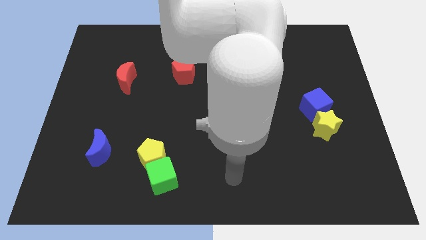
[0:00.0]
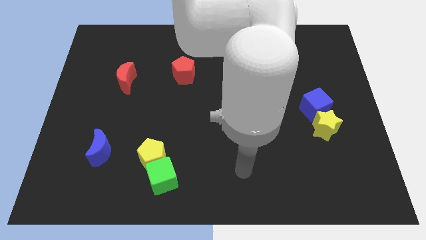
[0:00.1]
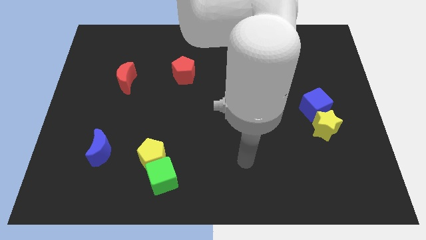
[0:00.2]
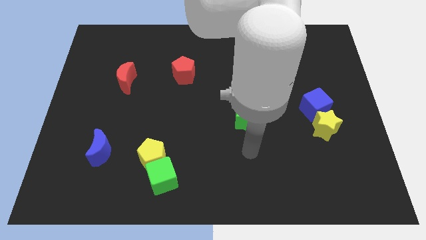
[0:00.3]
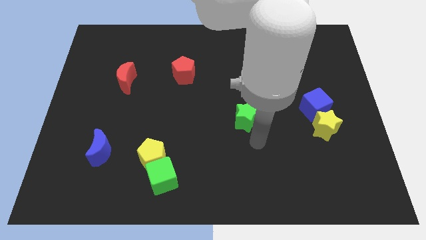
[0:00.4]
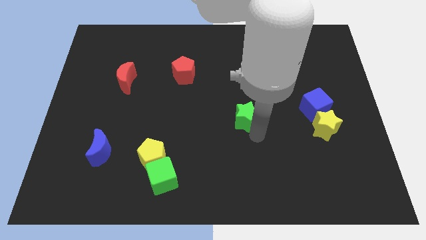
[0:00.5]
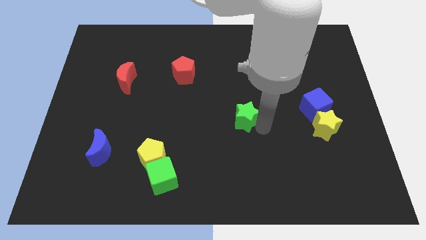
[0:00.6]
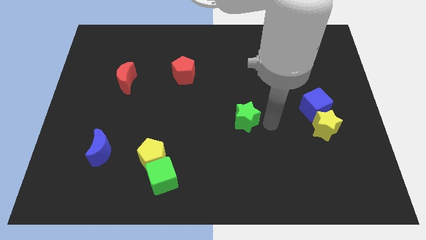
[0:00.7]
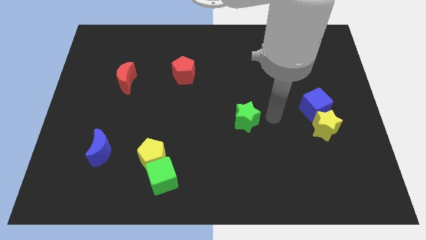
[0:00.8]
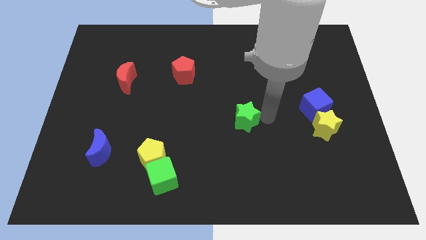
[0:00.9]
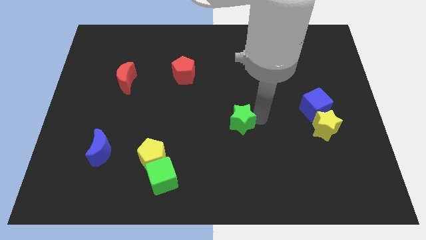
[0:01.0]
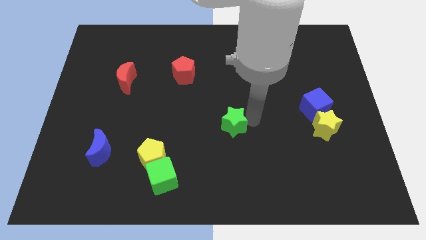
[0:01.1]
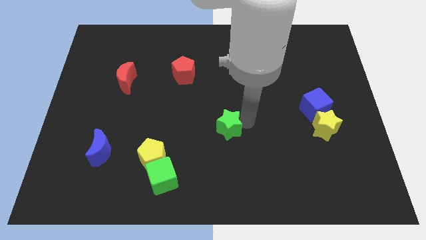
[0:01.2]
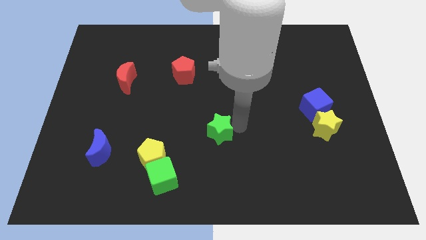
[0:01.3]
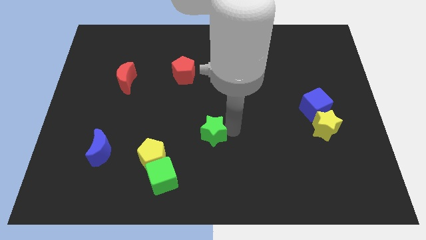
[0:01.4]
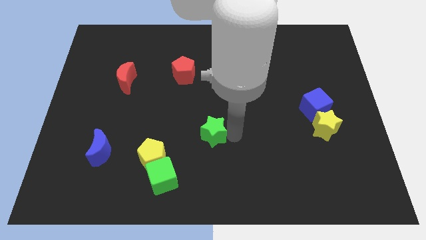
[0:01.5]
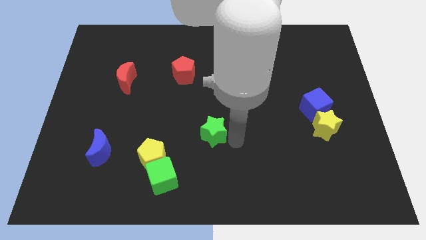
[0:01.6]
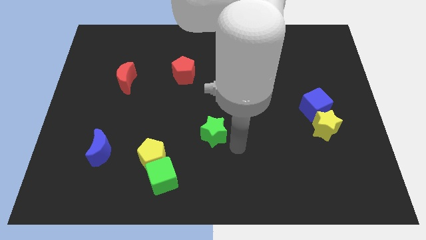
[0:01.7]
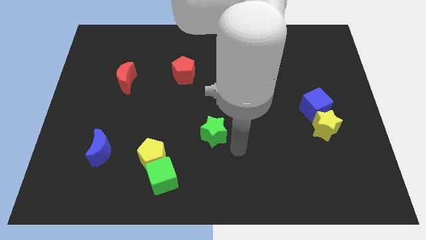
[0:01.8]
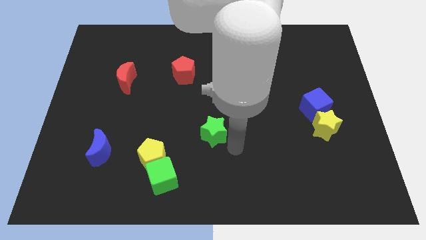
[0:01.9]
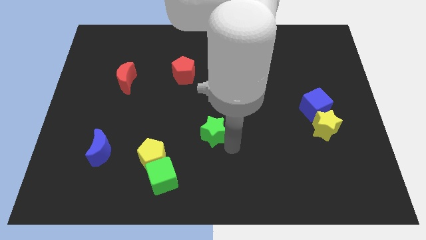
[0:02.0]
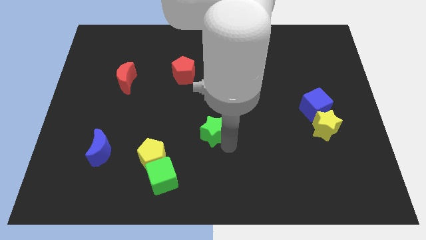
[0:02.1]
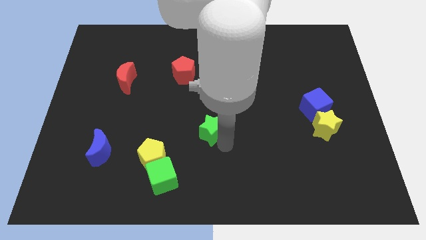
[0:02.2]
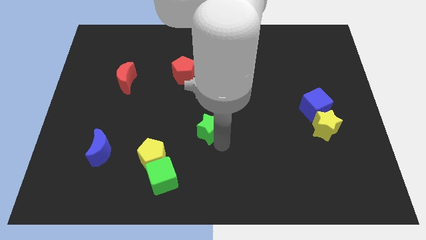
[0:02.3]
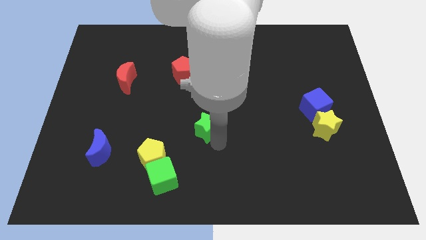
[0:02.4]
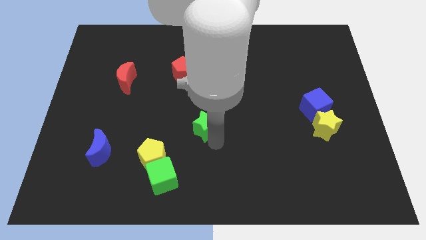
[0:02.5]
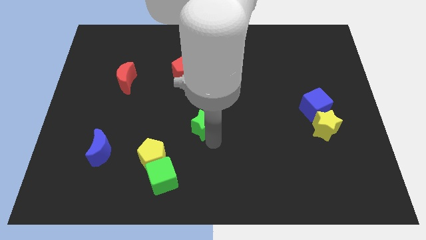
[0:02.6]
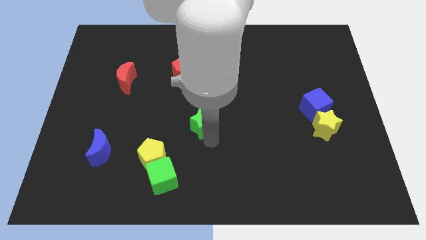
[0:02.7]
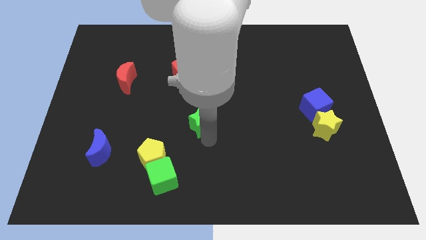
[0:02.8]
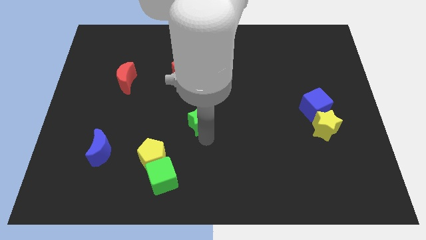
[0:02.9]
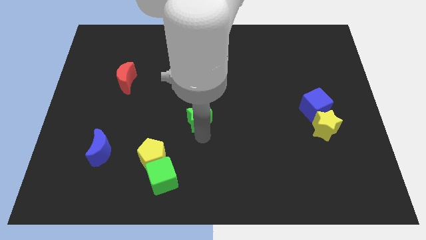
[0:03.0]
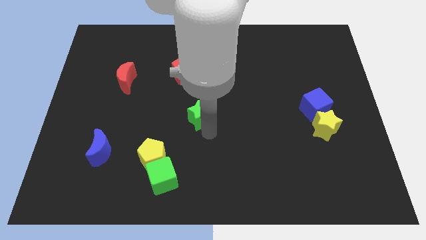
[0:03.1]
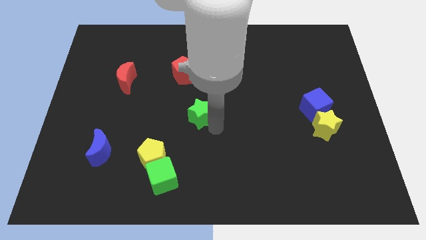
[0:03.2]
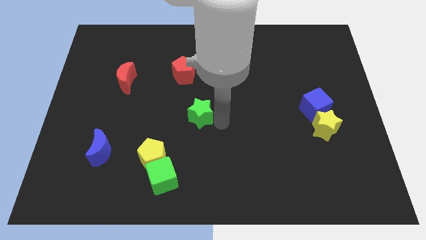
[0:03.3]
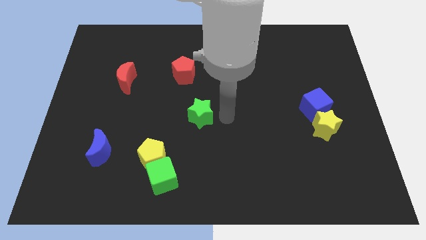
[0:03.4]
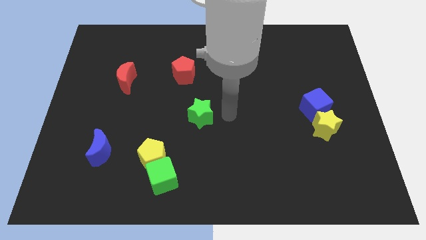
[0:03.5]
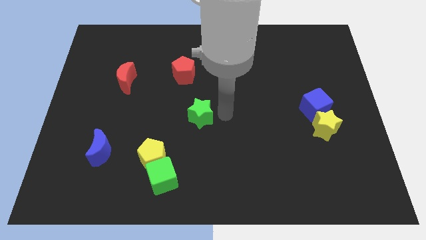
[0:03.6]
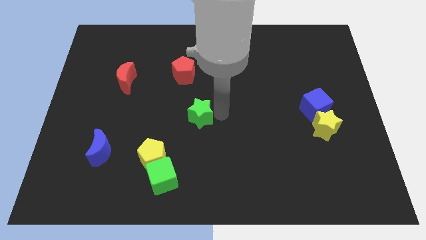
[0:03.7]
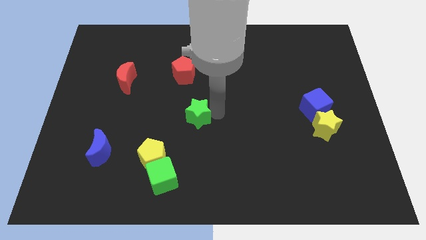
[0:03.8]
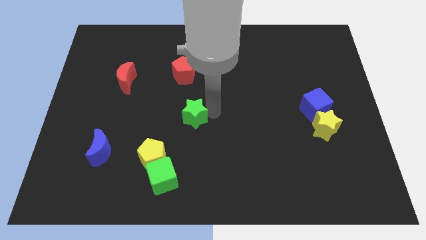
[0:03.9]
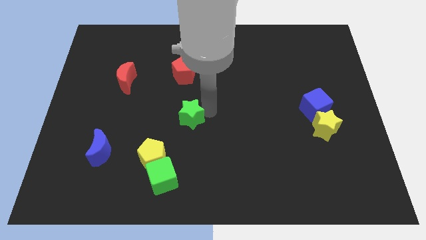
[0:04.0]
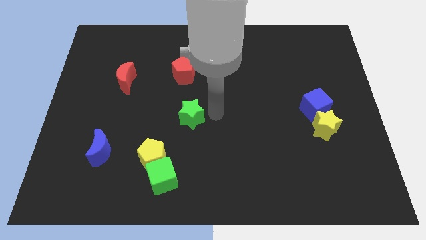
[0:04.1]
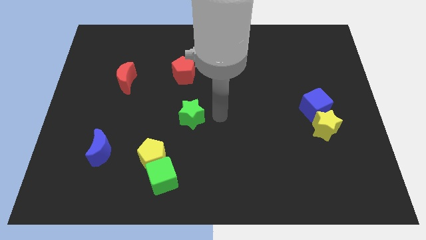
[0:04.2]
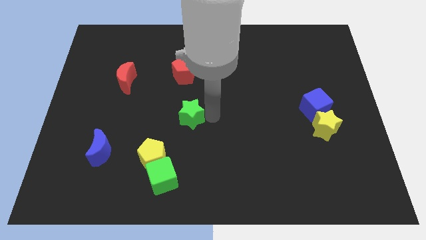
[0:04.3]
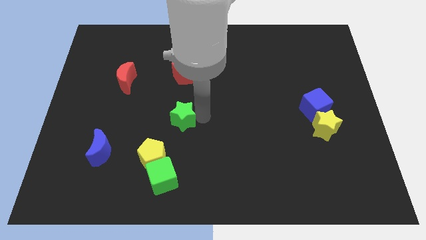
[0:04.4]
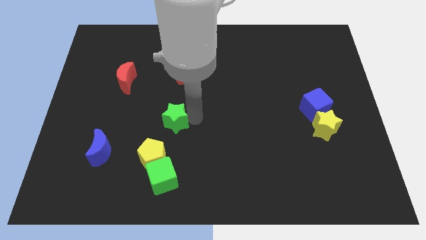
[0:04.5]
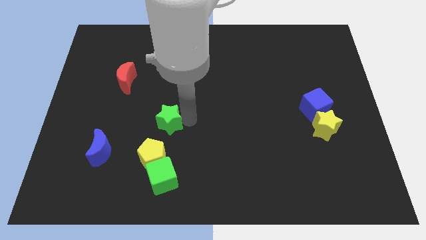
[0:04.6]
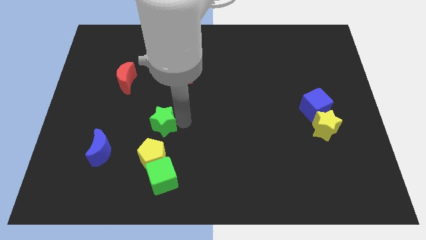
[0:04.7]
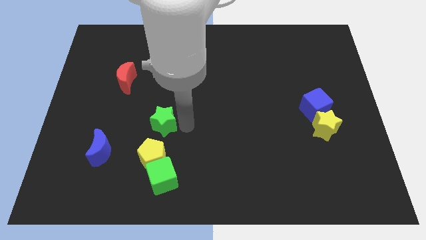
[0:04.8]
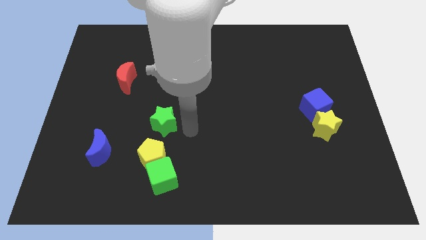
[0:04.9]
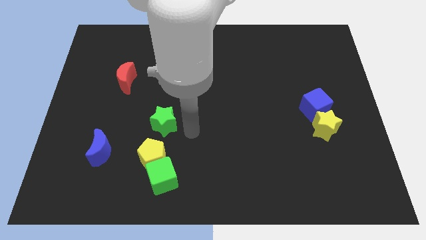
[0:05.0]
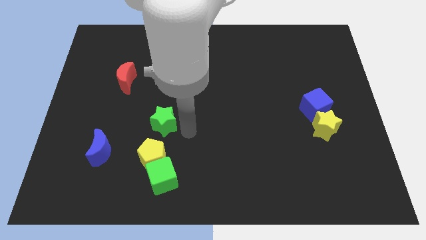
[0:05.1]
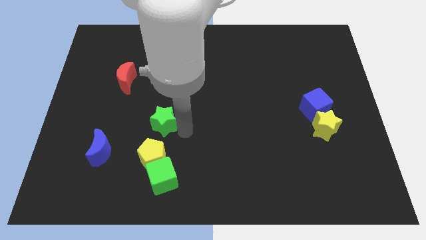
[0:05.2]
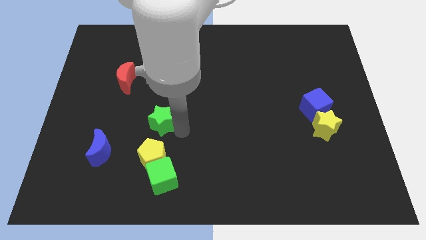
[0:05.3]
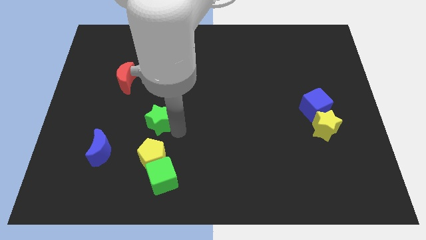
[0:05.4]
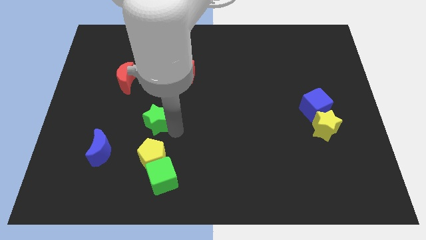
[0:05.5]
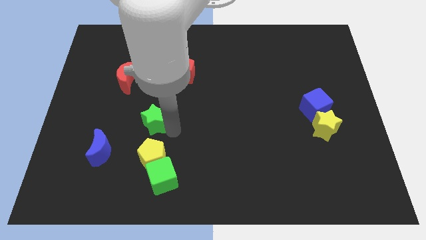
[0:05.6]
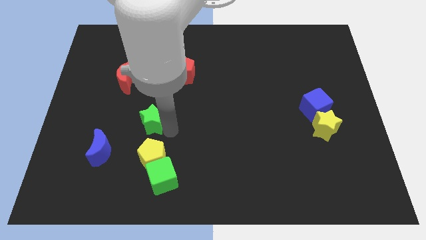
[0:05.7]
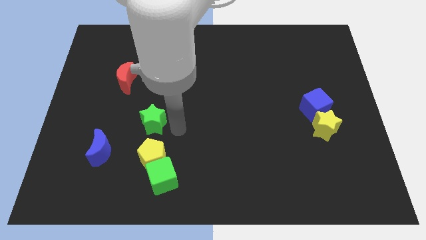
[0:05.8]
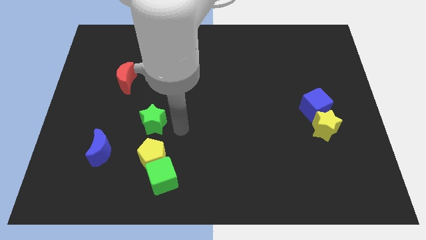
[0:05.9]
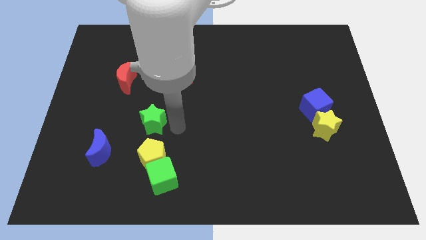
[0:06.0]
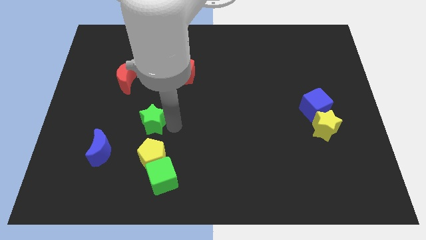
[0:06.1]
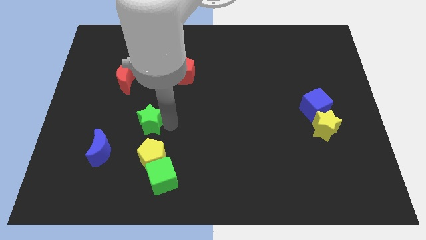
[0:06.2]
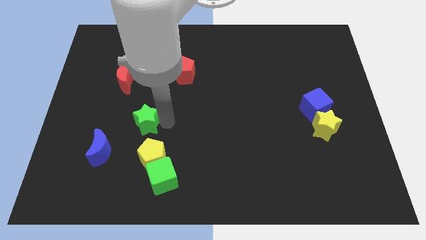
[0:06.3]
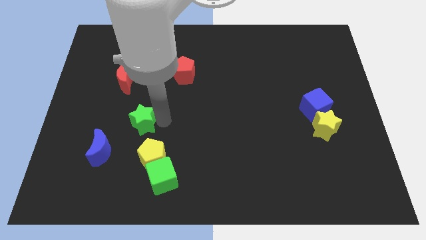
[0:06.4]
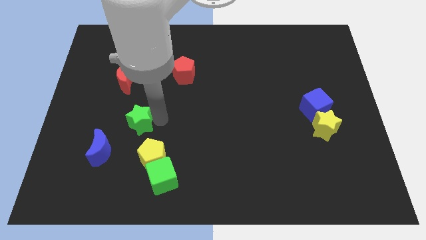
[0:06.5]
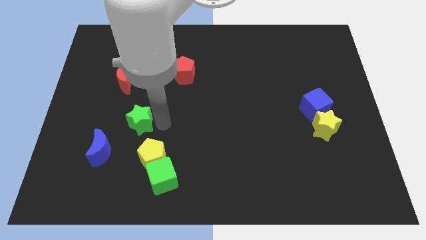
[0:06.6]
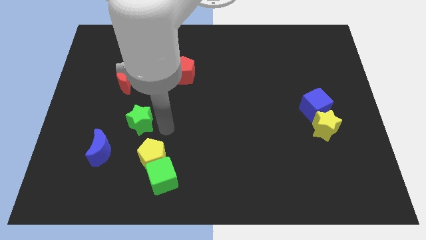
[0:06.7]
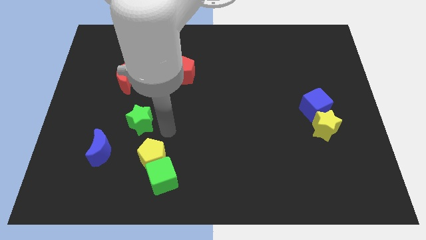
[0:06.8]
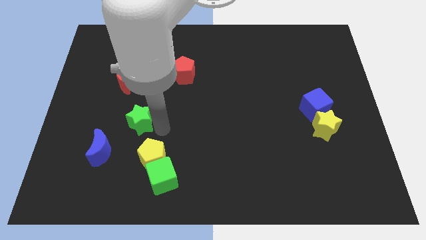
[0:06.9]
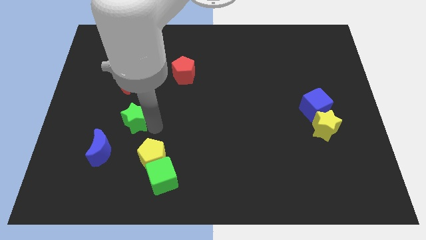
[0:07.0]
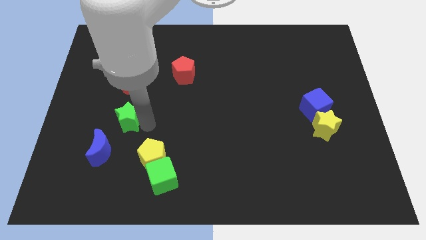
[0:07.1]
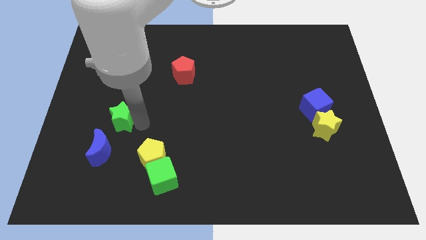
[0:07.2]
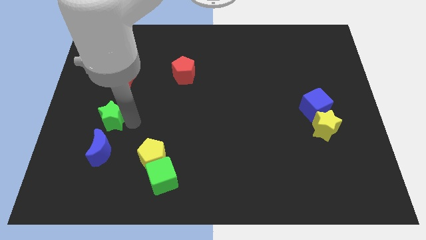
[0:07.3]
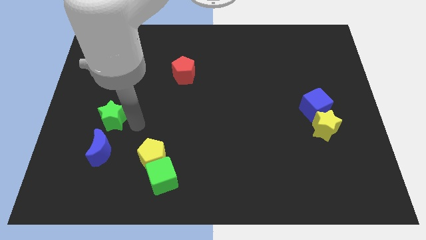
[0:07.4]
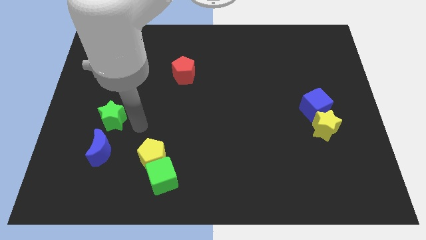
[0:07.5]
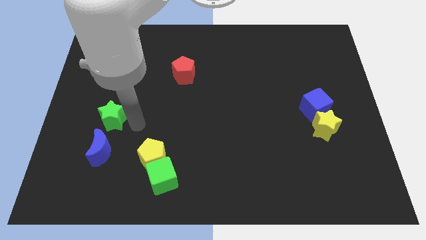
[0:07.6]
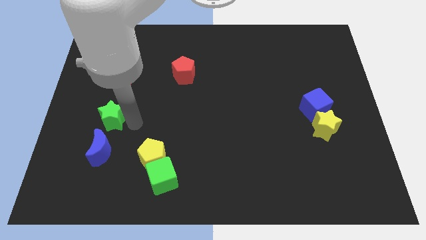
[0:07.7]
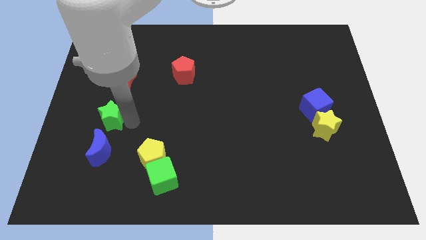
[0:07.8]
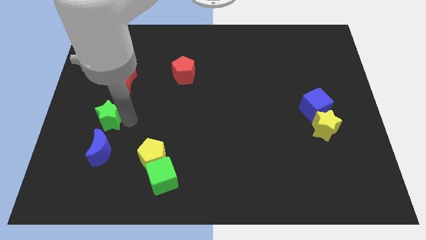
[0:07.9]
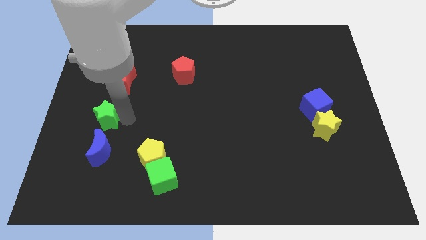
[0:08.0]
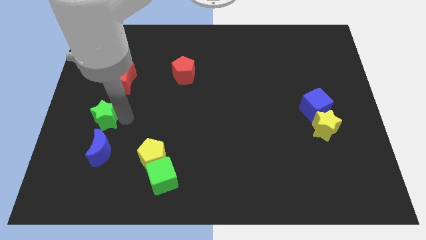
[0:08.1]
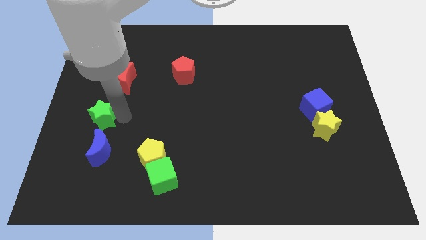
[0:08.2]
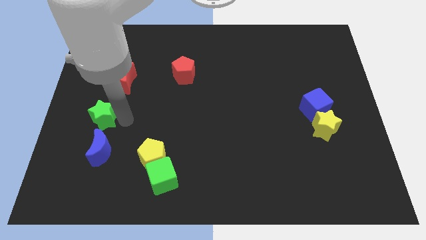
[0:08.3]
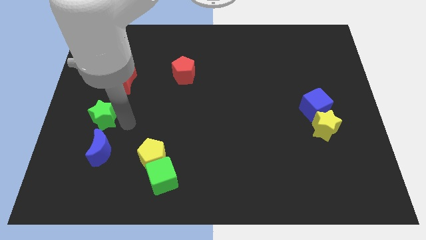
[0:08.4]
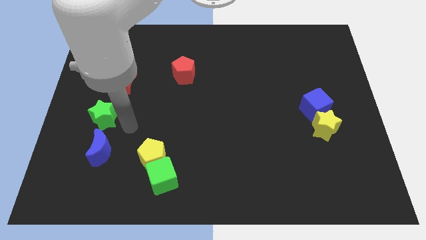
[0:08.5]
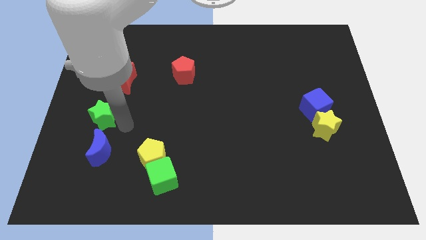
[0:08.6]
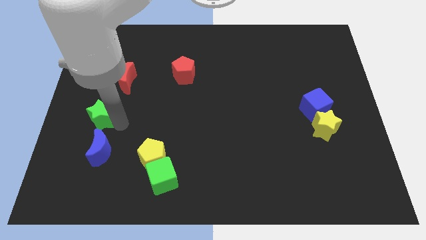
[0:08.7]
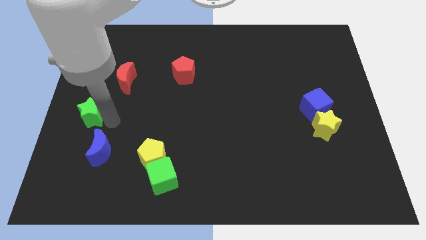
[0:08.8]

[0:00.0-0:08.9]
put the green star to the center left
